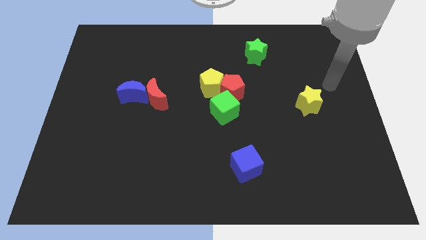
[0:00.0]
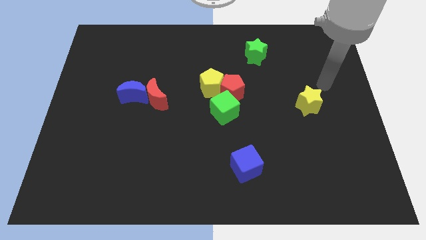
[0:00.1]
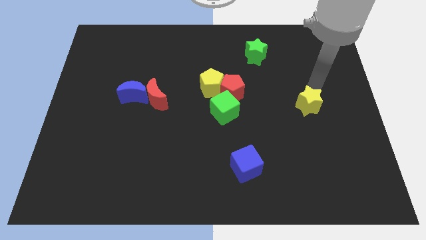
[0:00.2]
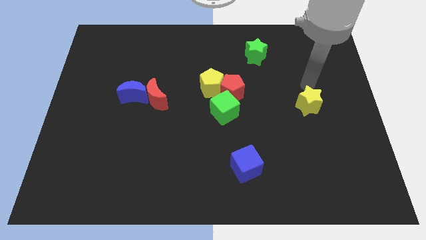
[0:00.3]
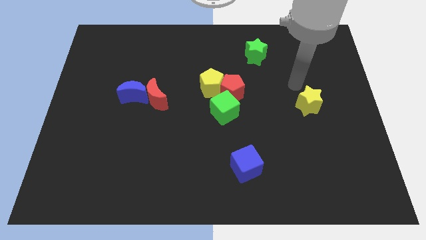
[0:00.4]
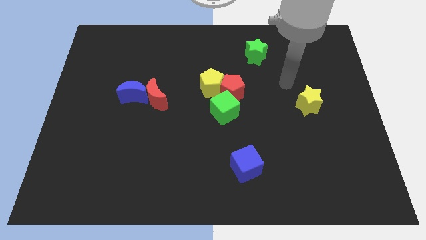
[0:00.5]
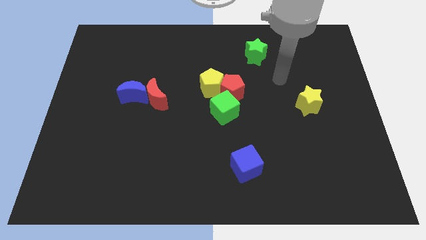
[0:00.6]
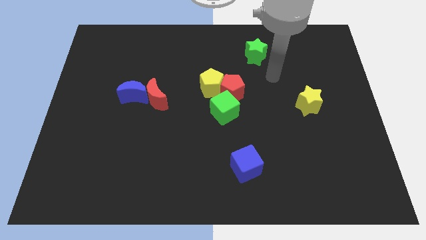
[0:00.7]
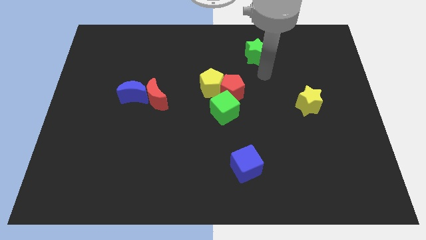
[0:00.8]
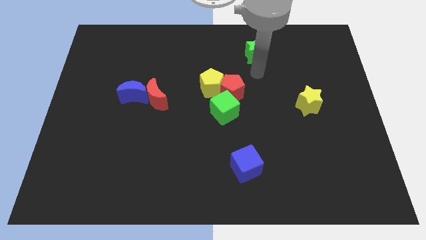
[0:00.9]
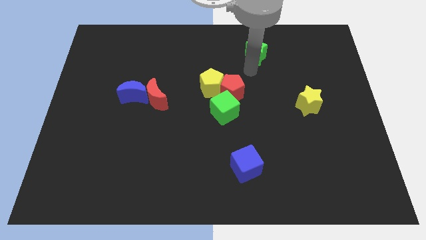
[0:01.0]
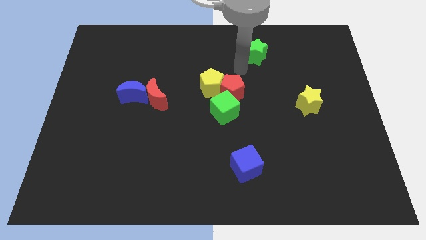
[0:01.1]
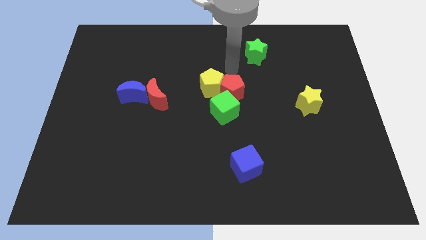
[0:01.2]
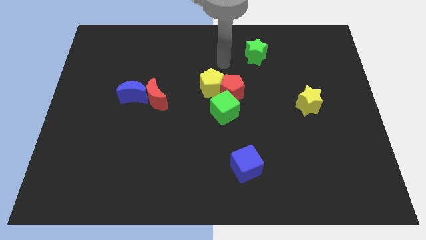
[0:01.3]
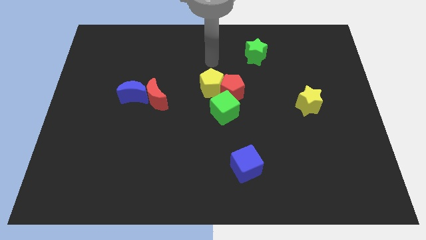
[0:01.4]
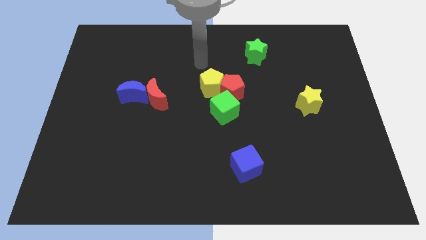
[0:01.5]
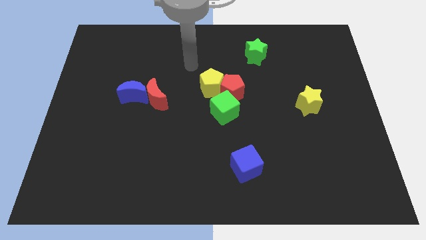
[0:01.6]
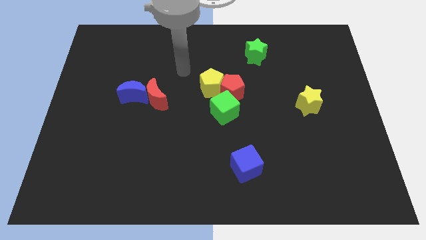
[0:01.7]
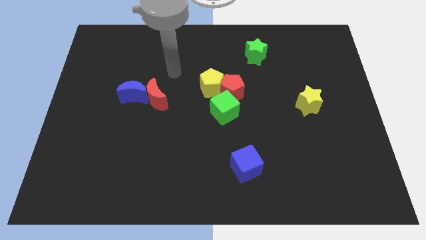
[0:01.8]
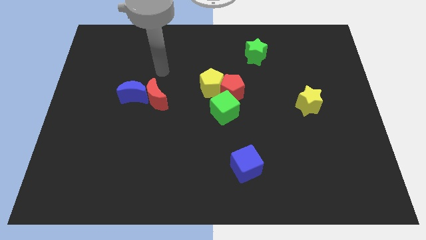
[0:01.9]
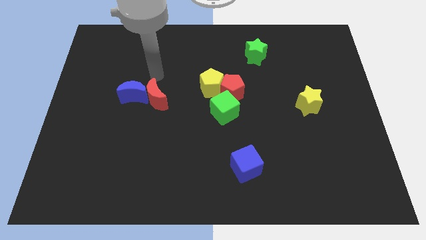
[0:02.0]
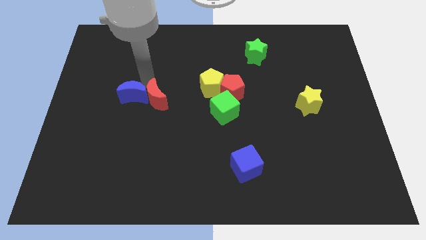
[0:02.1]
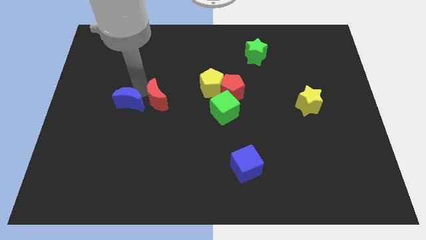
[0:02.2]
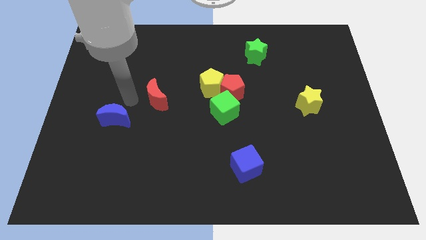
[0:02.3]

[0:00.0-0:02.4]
separate the red moon from the blue moon

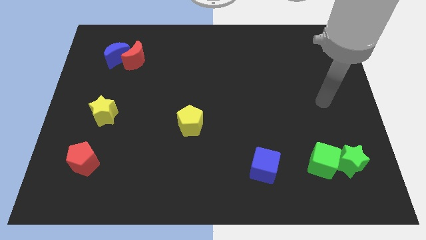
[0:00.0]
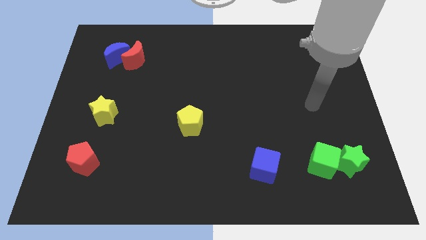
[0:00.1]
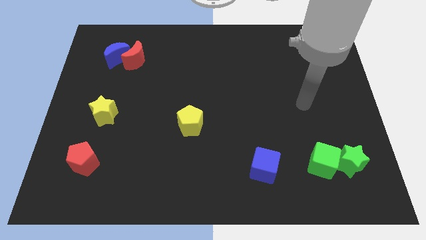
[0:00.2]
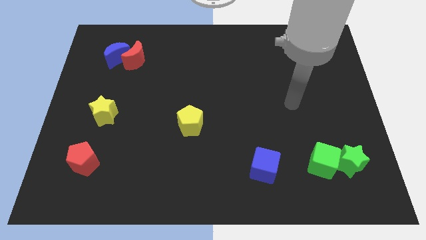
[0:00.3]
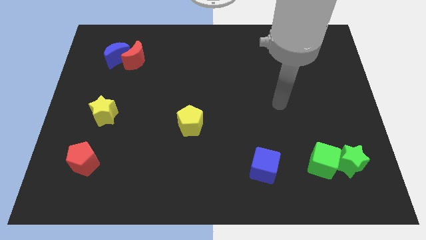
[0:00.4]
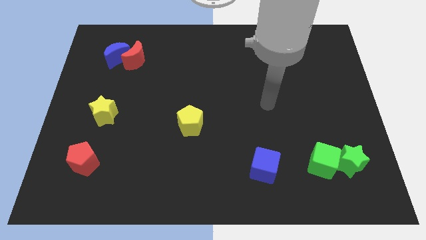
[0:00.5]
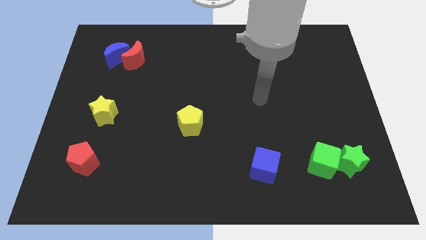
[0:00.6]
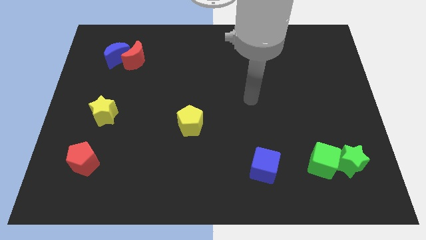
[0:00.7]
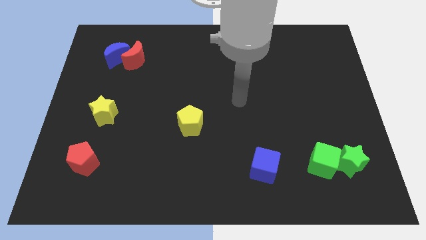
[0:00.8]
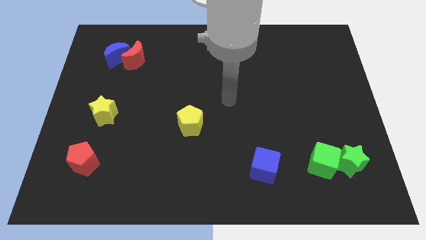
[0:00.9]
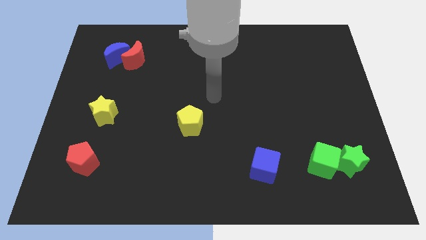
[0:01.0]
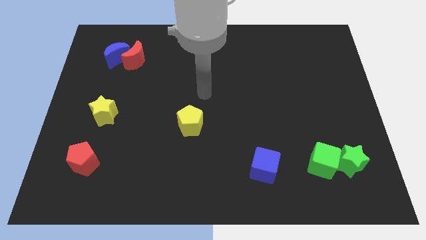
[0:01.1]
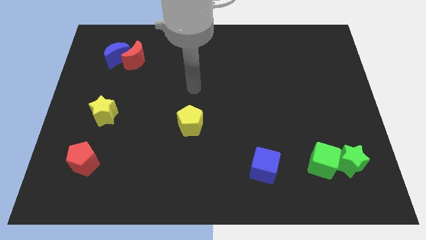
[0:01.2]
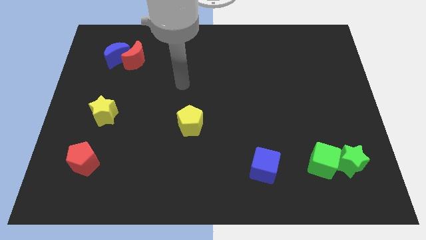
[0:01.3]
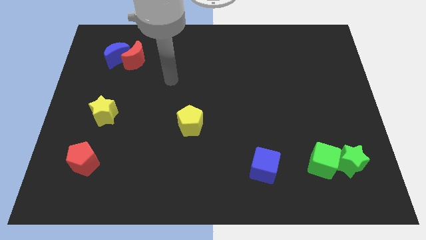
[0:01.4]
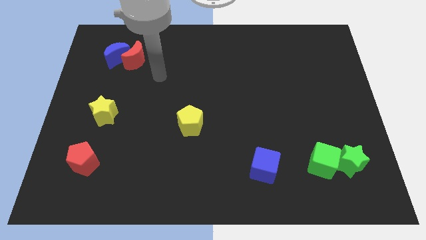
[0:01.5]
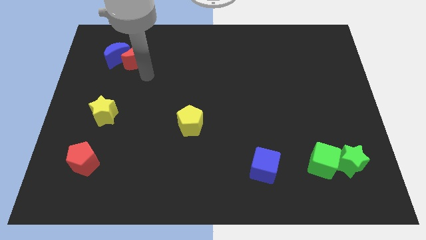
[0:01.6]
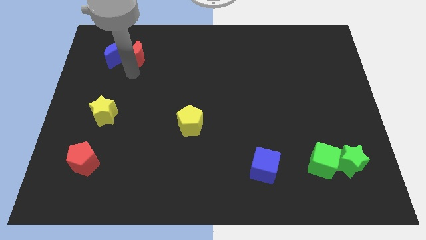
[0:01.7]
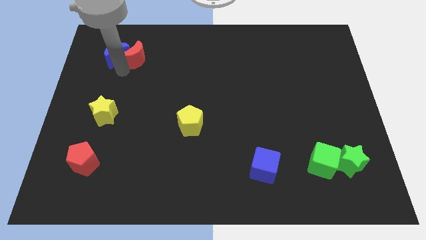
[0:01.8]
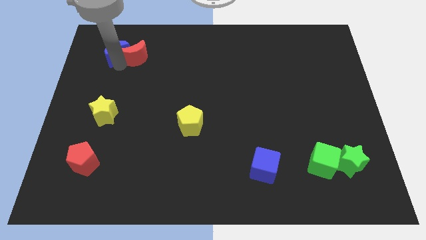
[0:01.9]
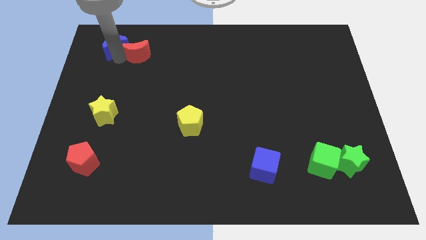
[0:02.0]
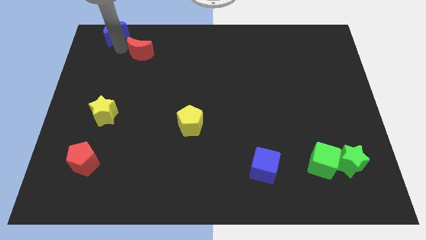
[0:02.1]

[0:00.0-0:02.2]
pull the red moon apart from the blue moon

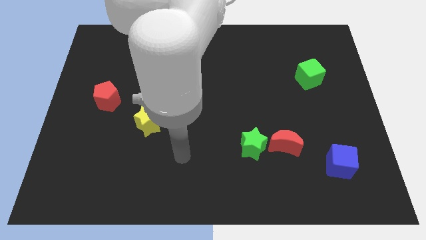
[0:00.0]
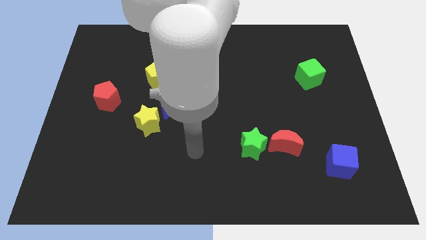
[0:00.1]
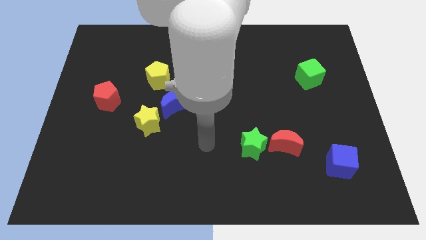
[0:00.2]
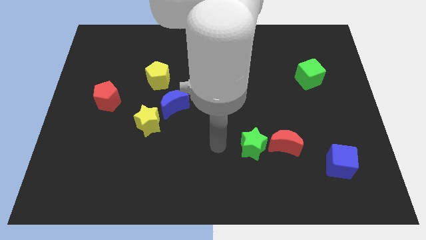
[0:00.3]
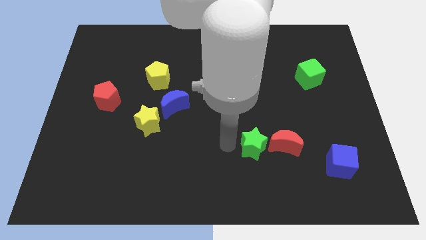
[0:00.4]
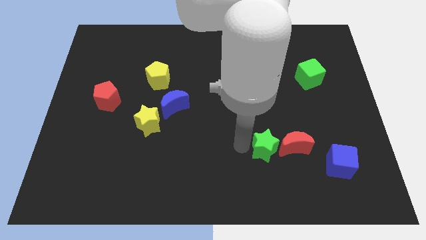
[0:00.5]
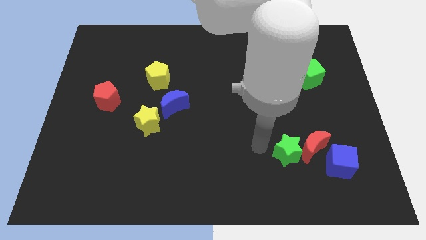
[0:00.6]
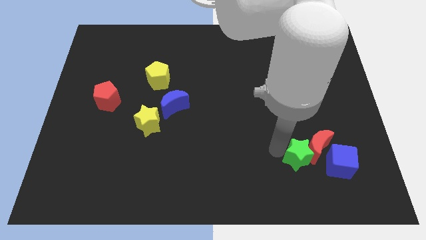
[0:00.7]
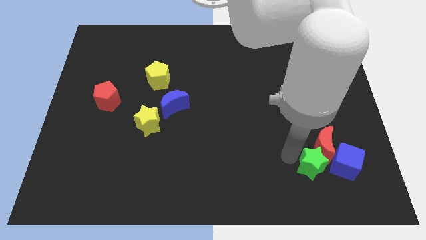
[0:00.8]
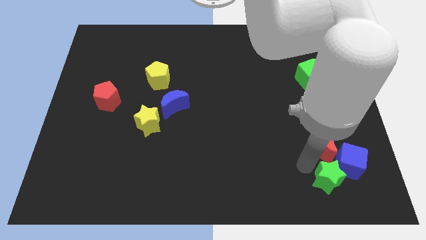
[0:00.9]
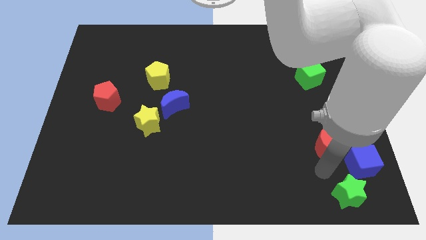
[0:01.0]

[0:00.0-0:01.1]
pull the red moon apart from the green star

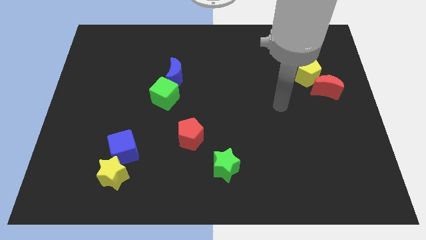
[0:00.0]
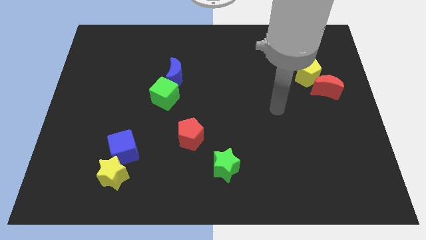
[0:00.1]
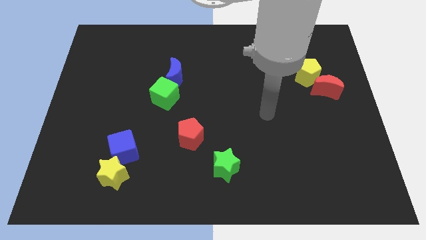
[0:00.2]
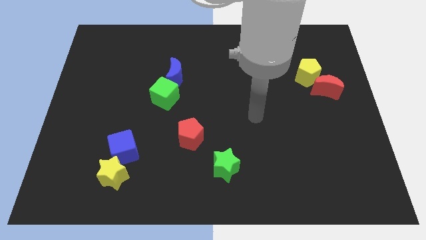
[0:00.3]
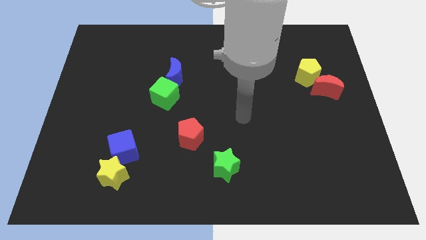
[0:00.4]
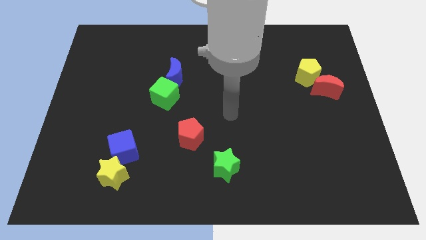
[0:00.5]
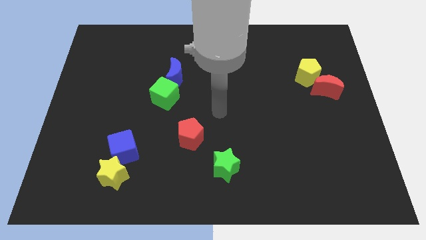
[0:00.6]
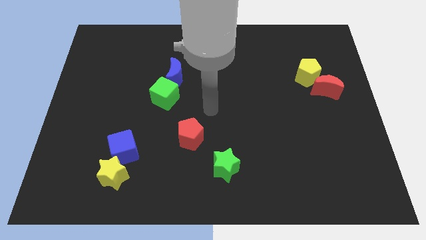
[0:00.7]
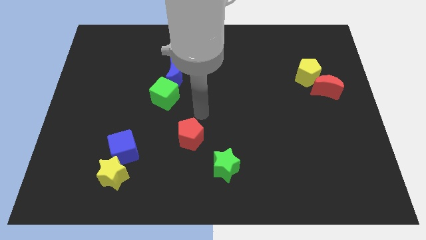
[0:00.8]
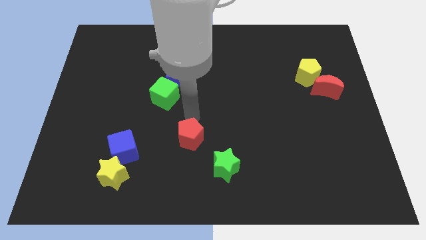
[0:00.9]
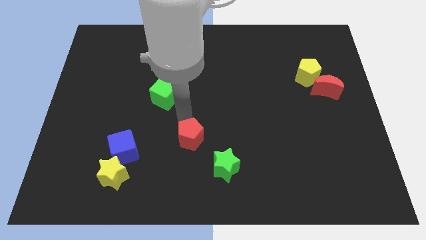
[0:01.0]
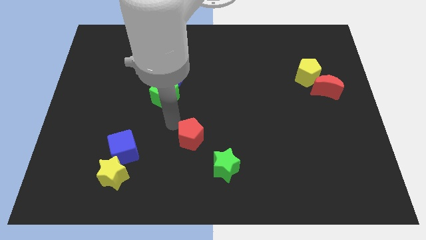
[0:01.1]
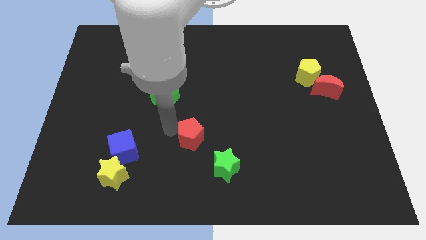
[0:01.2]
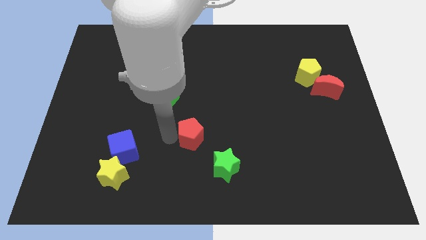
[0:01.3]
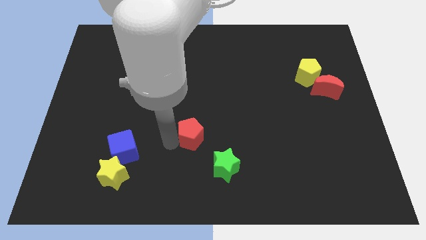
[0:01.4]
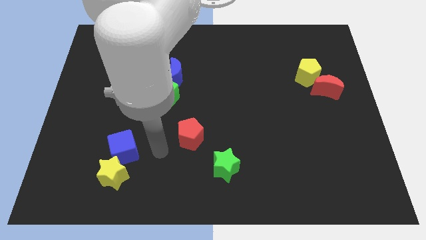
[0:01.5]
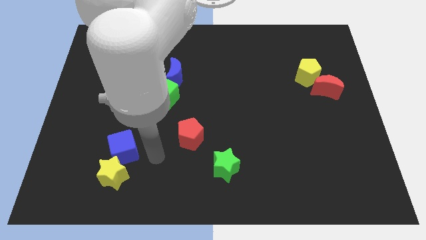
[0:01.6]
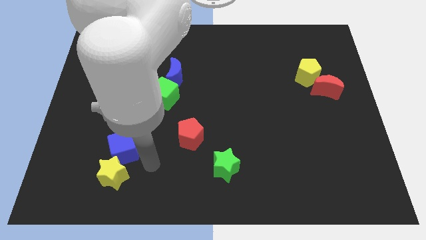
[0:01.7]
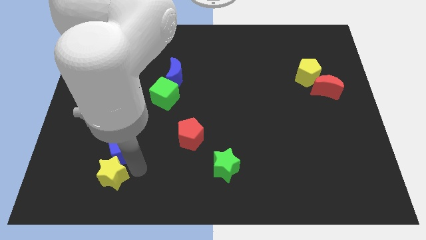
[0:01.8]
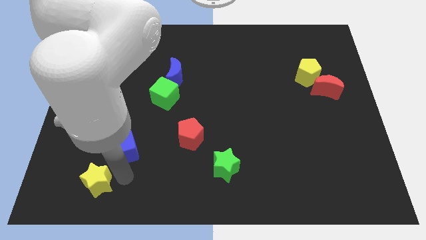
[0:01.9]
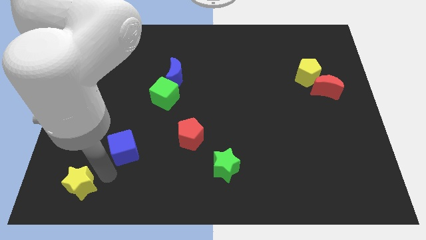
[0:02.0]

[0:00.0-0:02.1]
move the blue cube away from the yellow star

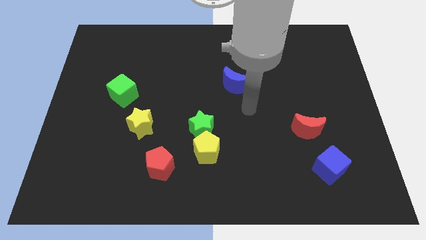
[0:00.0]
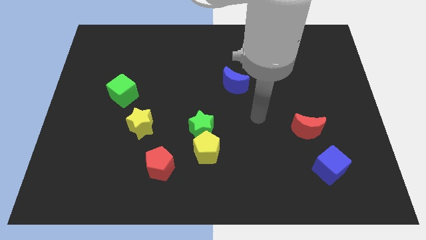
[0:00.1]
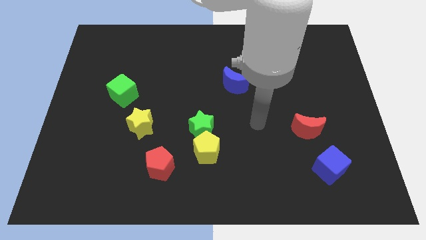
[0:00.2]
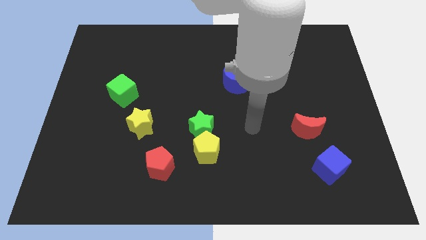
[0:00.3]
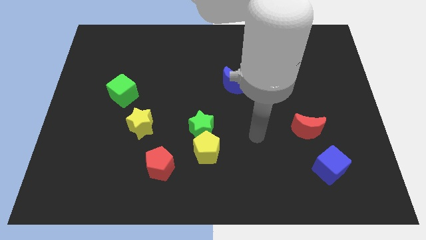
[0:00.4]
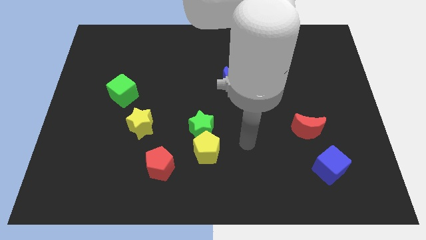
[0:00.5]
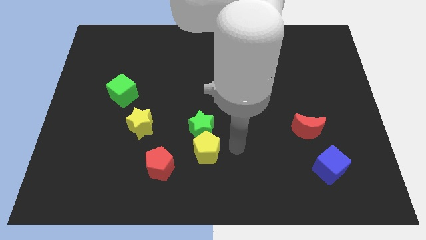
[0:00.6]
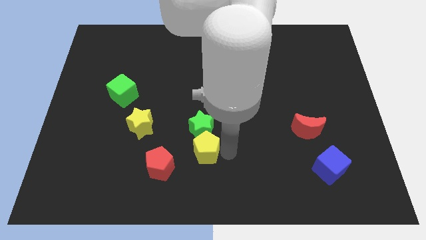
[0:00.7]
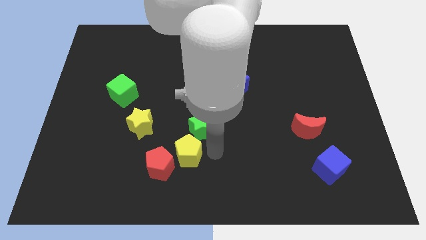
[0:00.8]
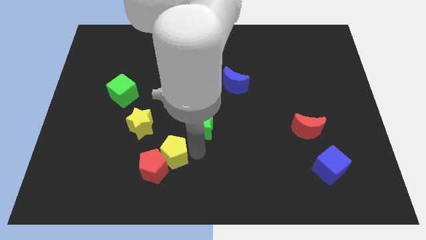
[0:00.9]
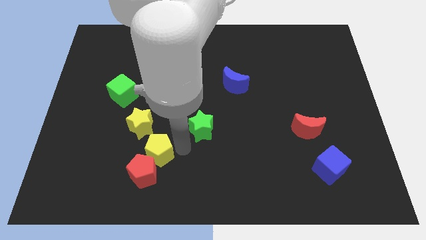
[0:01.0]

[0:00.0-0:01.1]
move the green star away from the yellow pentagon

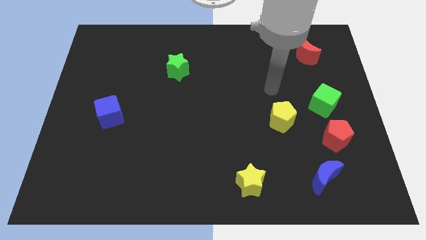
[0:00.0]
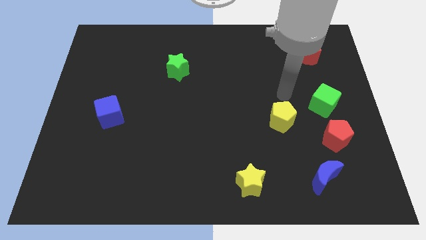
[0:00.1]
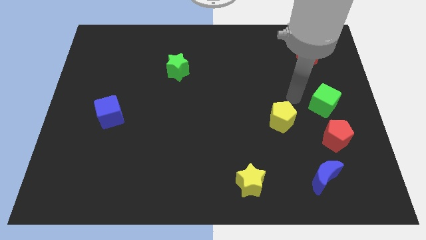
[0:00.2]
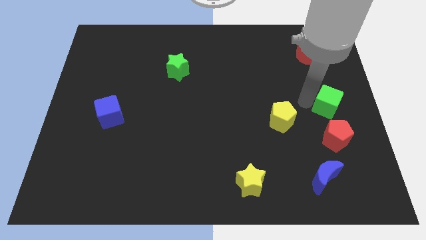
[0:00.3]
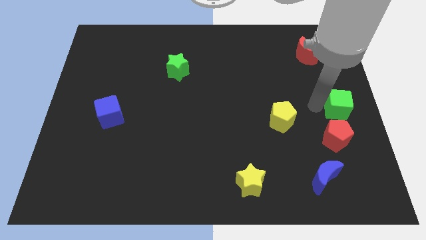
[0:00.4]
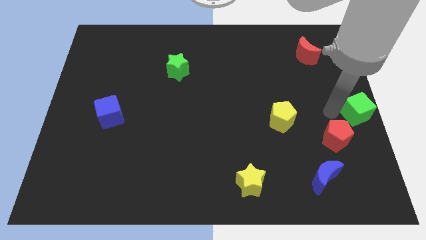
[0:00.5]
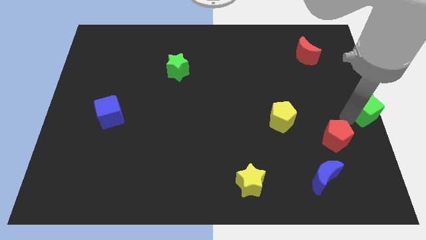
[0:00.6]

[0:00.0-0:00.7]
pull the red pentagon apart from the green cube
